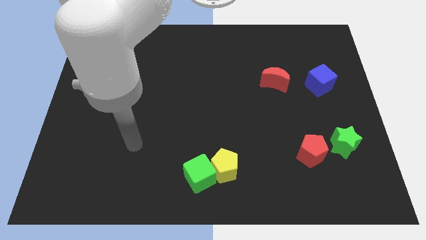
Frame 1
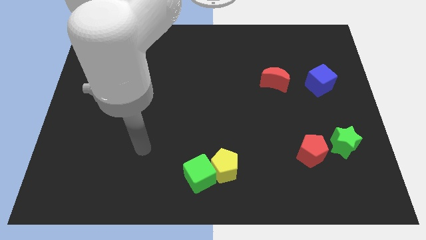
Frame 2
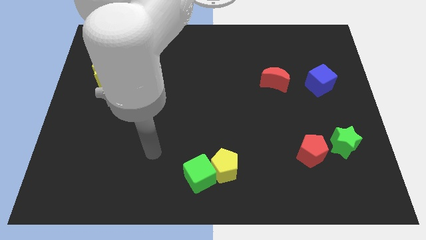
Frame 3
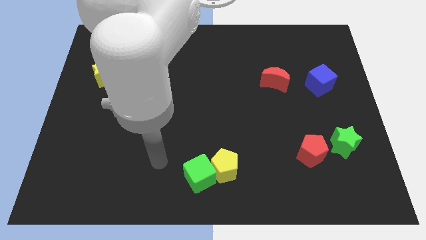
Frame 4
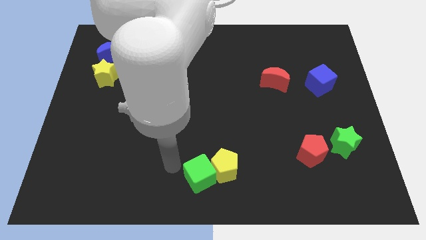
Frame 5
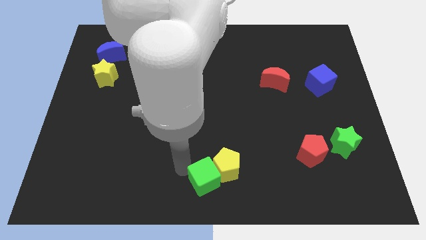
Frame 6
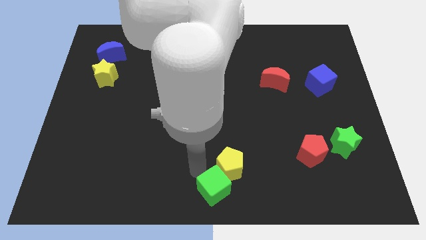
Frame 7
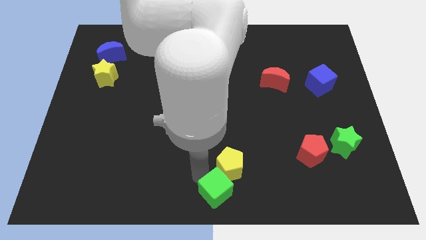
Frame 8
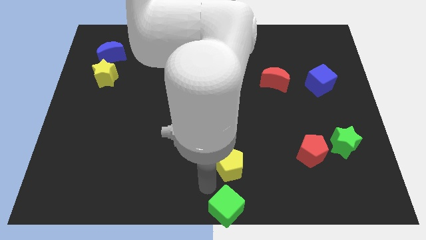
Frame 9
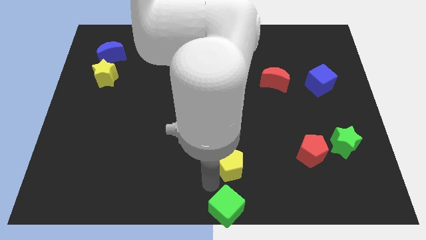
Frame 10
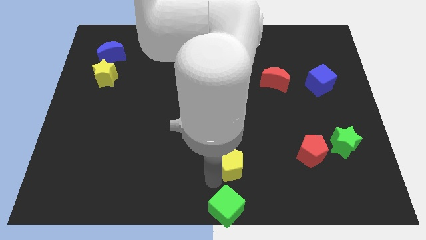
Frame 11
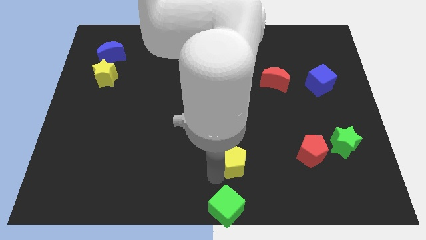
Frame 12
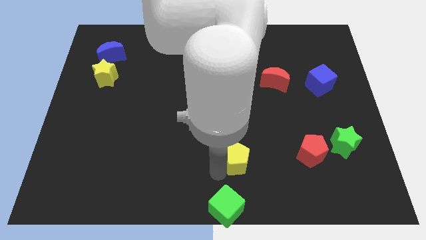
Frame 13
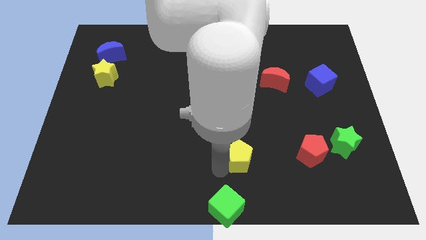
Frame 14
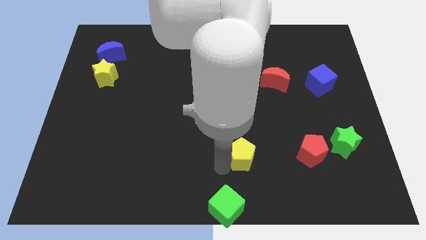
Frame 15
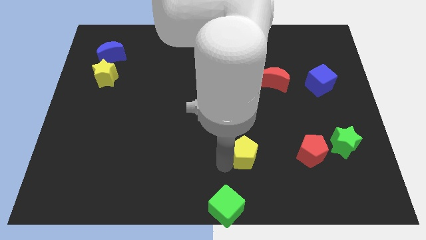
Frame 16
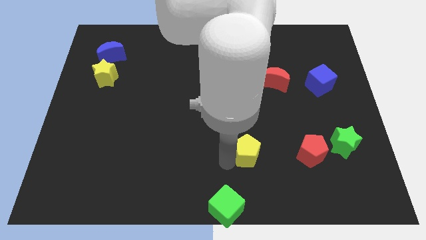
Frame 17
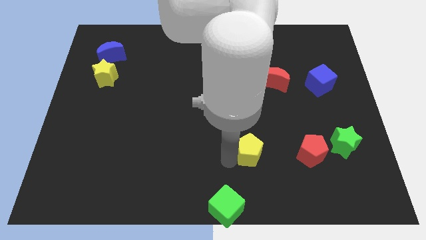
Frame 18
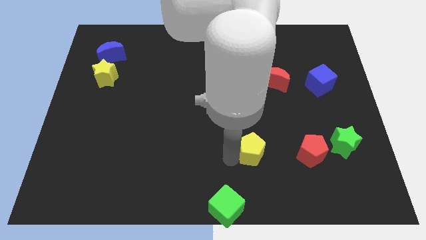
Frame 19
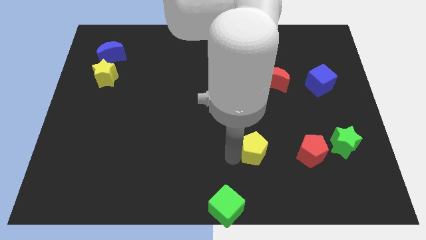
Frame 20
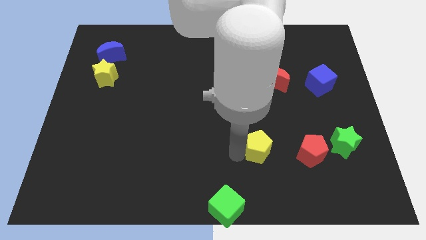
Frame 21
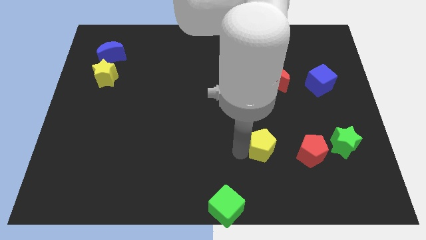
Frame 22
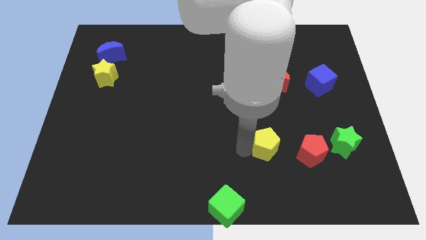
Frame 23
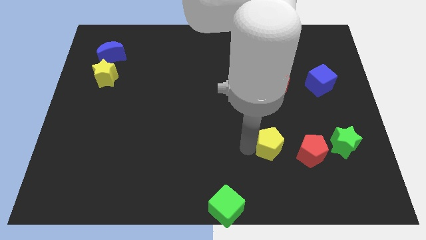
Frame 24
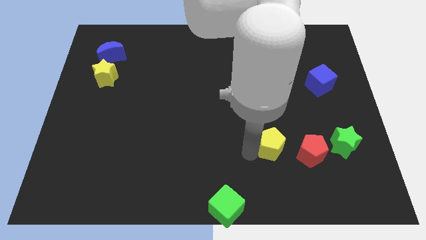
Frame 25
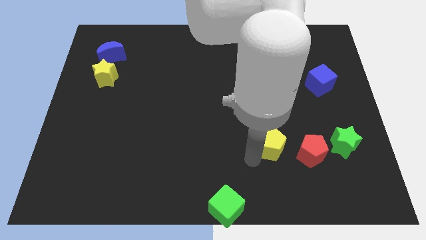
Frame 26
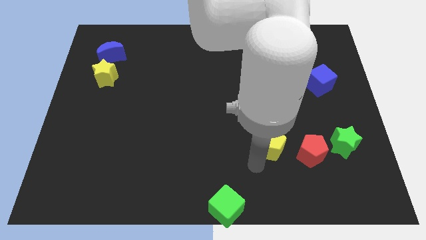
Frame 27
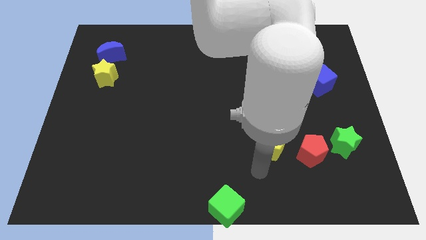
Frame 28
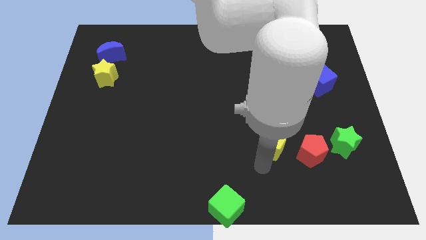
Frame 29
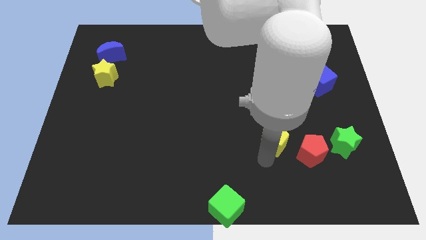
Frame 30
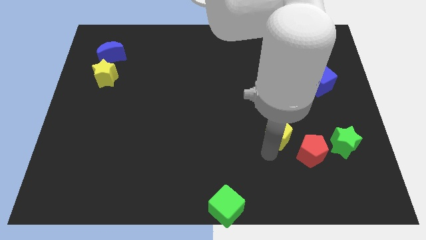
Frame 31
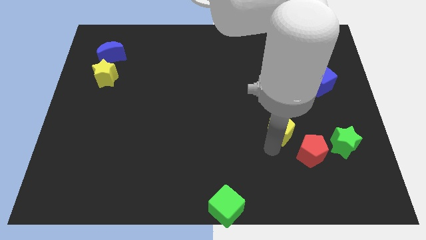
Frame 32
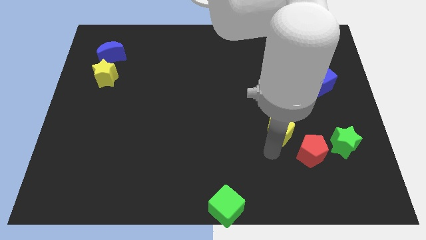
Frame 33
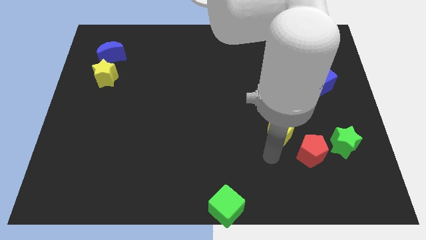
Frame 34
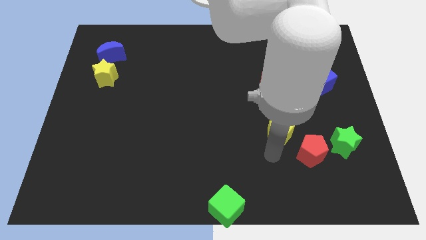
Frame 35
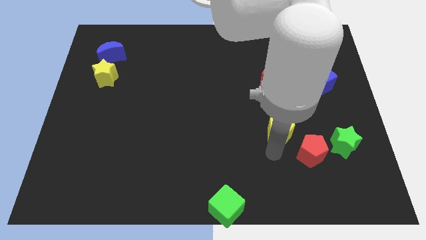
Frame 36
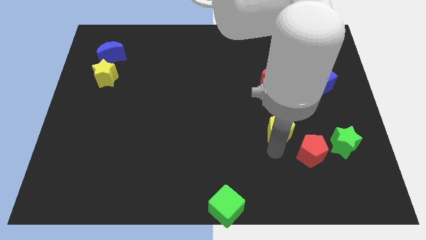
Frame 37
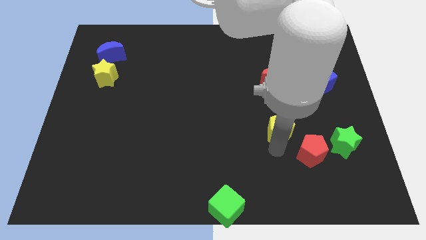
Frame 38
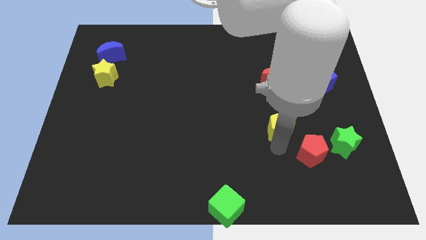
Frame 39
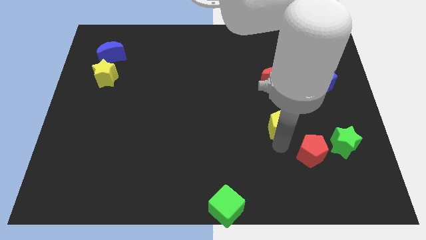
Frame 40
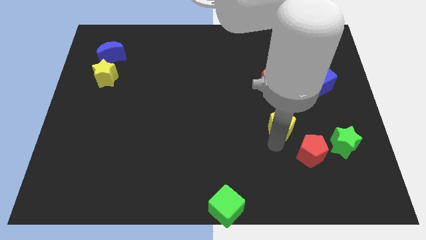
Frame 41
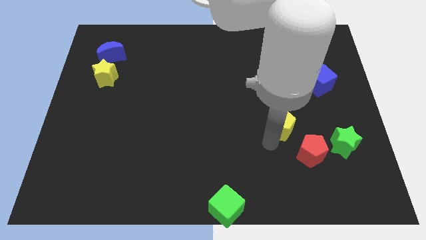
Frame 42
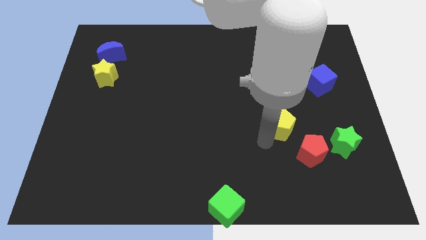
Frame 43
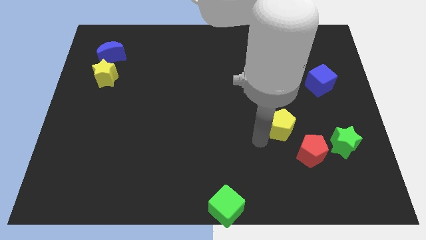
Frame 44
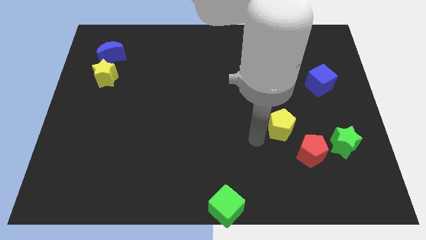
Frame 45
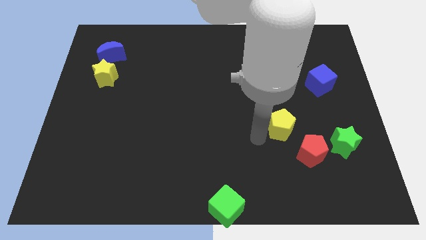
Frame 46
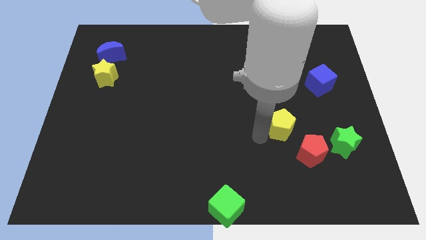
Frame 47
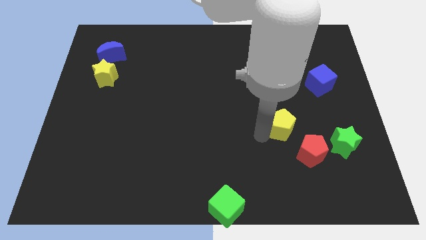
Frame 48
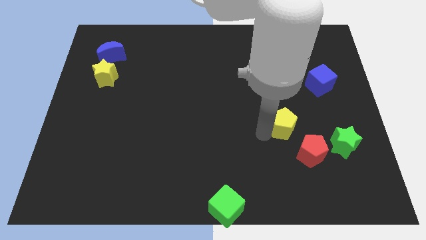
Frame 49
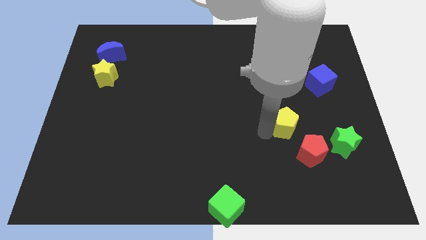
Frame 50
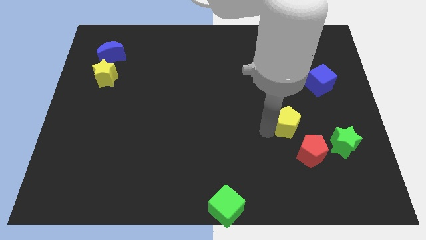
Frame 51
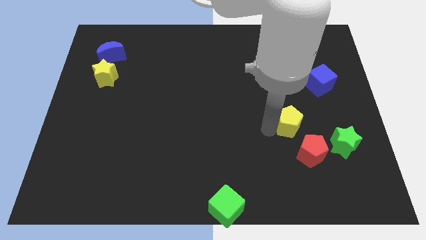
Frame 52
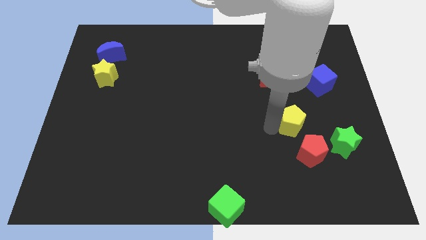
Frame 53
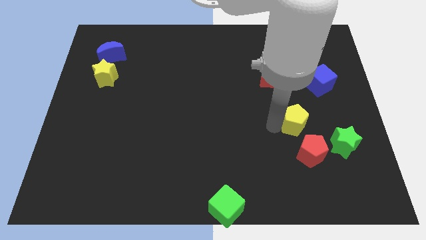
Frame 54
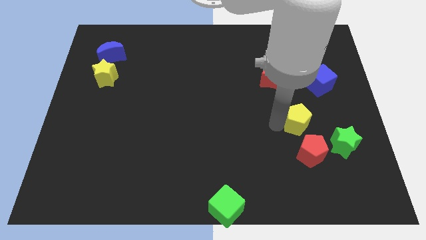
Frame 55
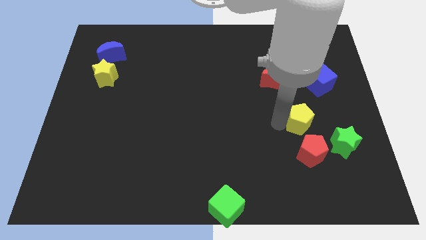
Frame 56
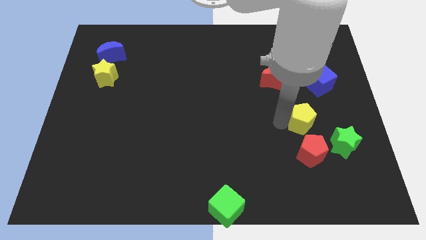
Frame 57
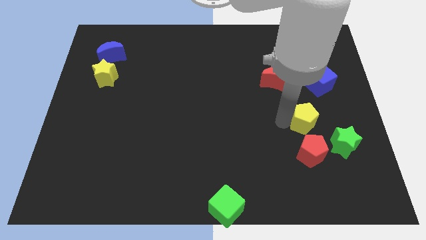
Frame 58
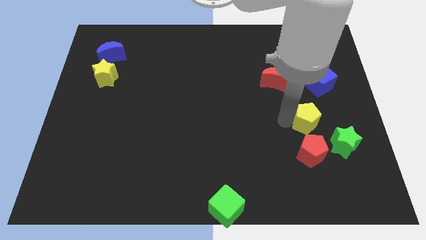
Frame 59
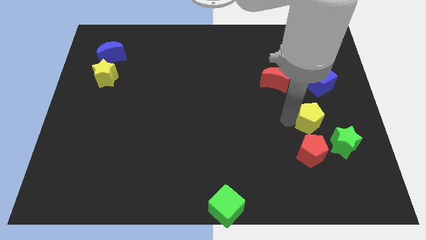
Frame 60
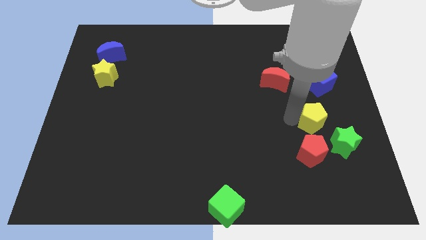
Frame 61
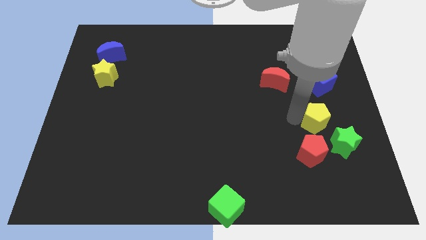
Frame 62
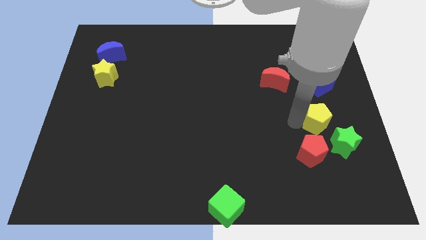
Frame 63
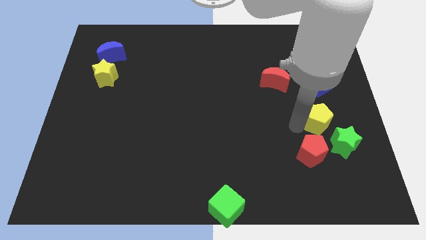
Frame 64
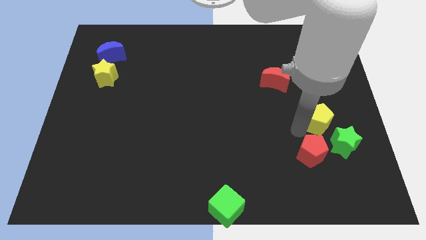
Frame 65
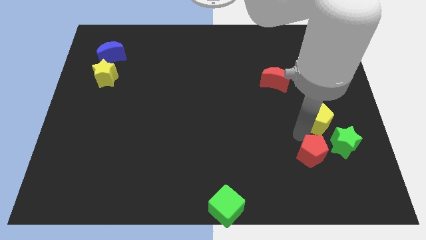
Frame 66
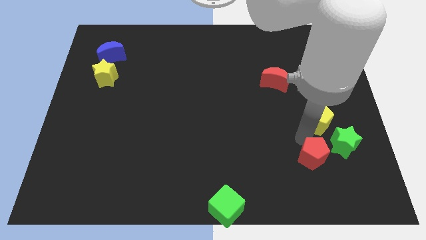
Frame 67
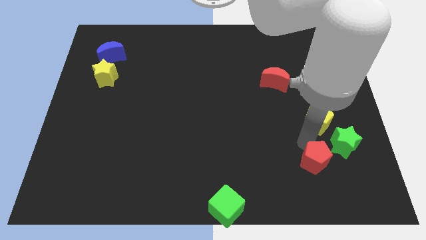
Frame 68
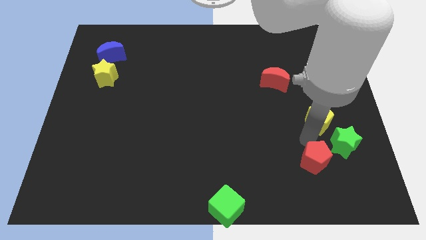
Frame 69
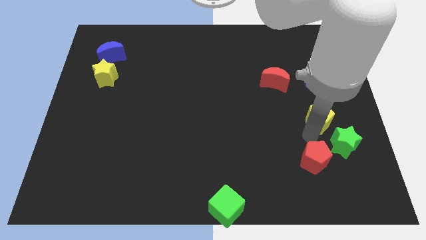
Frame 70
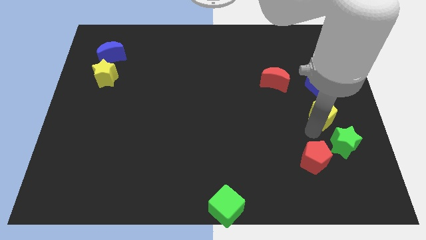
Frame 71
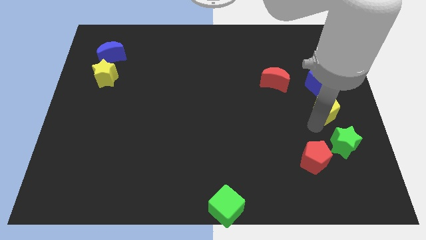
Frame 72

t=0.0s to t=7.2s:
put the yellow pentagon to the center right
